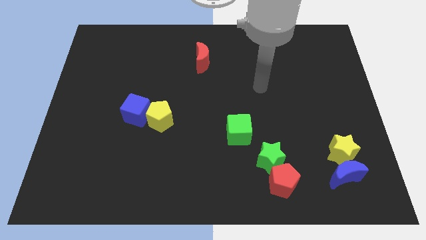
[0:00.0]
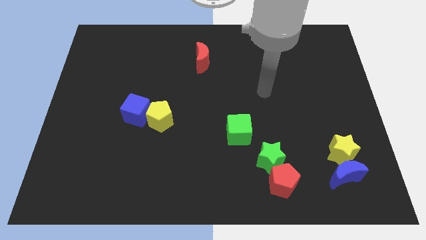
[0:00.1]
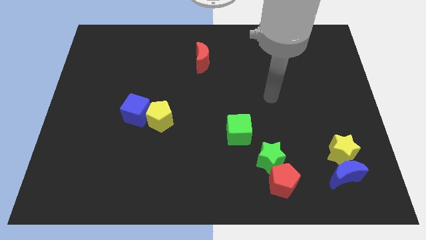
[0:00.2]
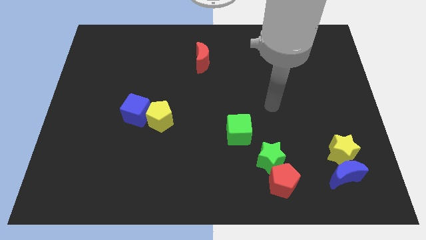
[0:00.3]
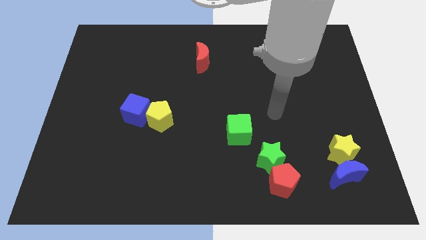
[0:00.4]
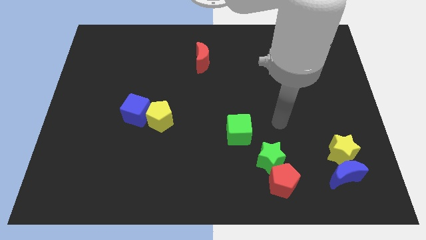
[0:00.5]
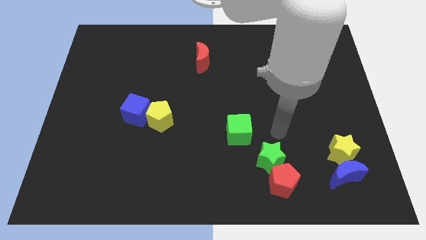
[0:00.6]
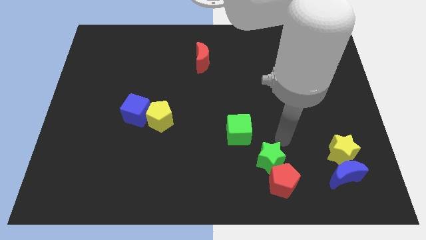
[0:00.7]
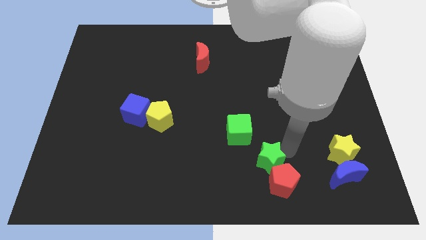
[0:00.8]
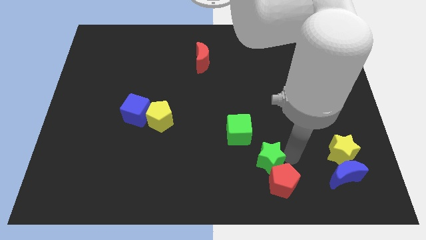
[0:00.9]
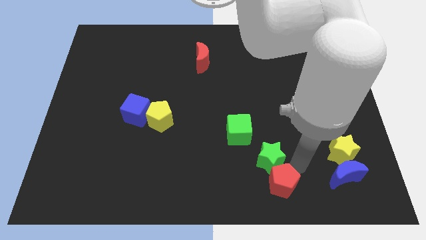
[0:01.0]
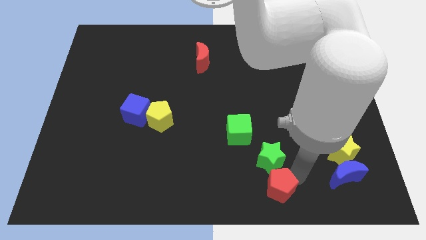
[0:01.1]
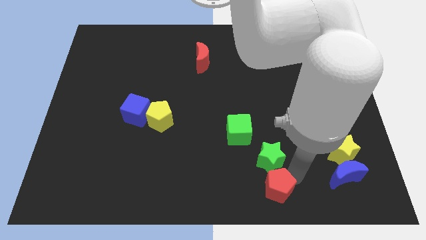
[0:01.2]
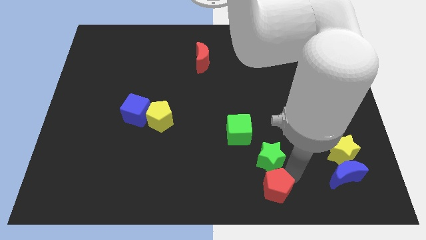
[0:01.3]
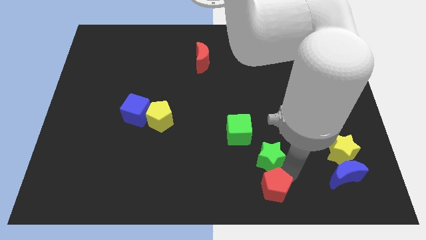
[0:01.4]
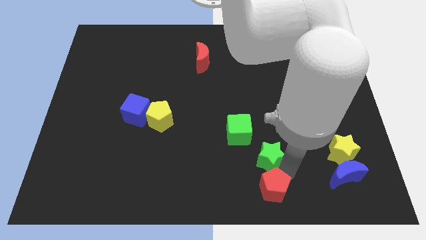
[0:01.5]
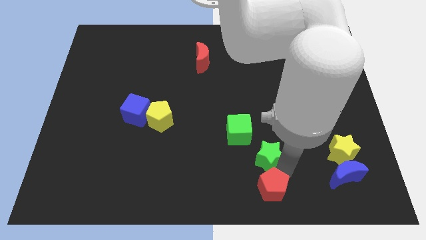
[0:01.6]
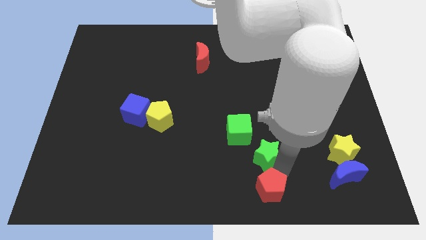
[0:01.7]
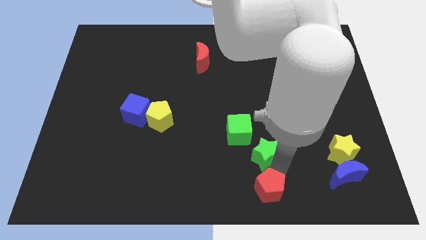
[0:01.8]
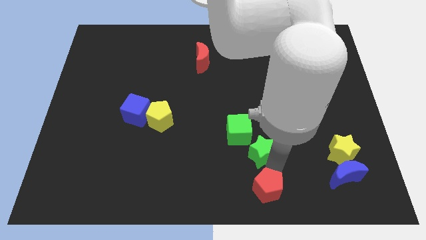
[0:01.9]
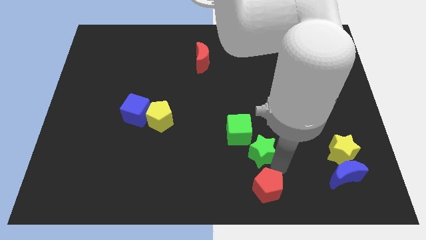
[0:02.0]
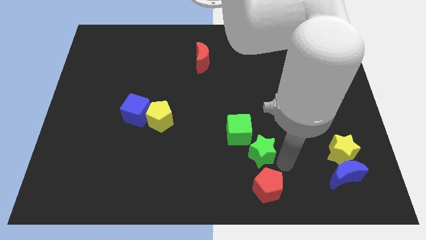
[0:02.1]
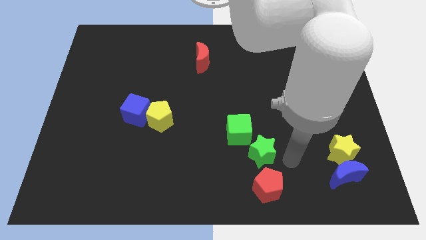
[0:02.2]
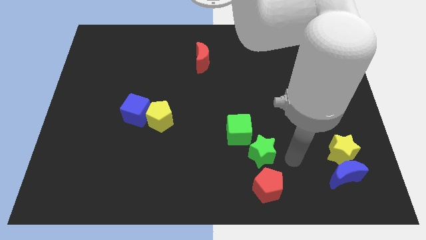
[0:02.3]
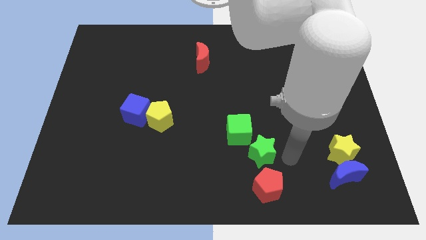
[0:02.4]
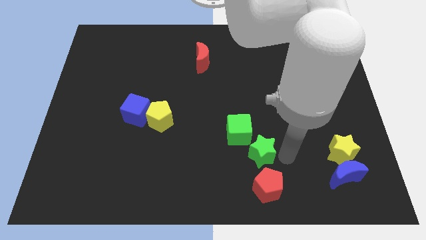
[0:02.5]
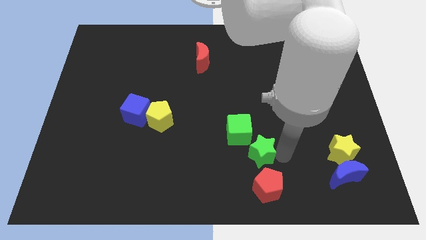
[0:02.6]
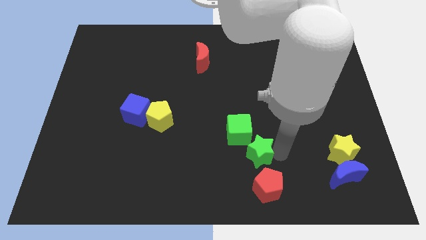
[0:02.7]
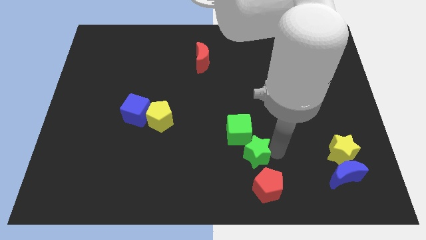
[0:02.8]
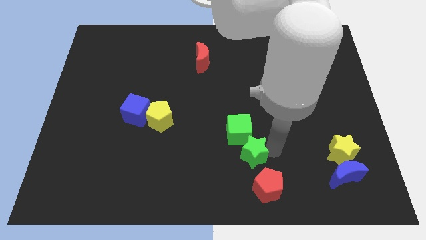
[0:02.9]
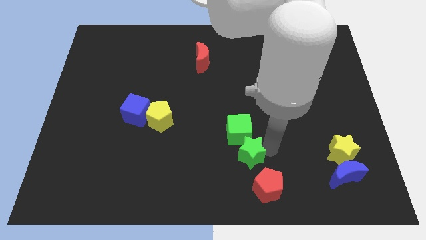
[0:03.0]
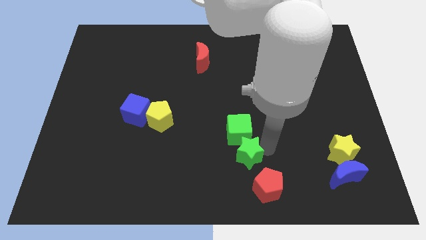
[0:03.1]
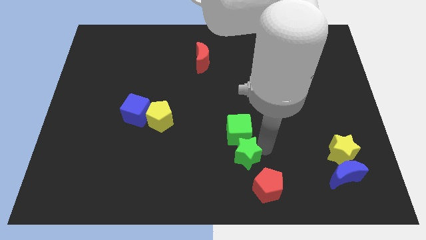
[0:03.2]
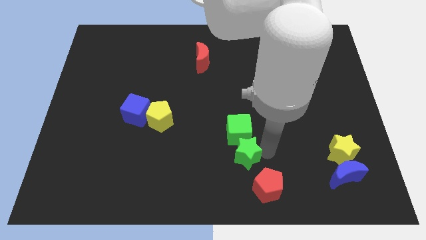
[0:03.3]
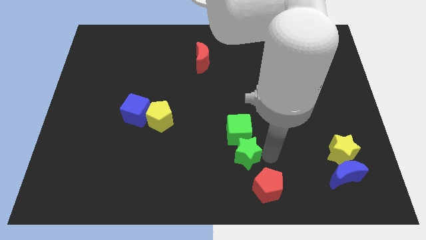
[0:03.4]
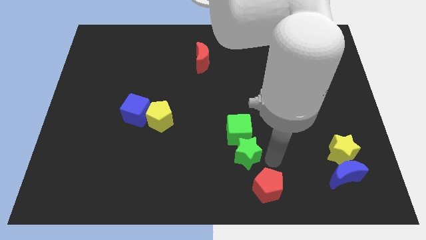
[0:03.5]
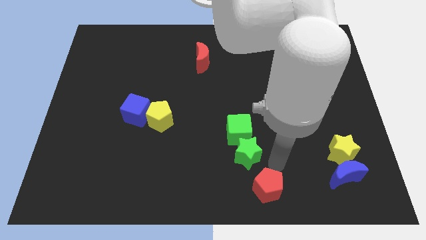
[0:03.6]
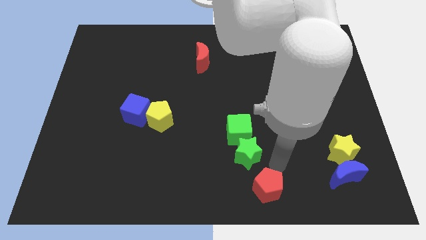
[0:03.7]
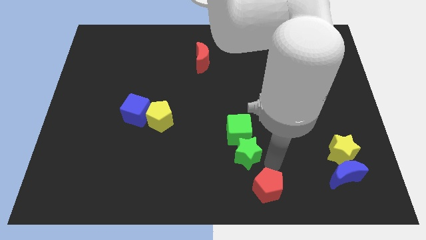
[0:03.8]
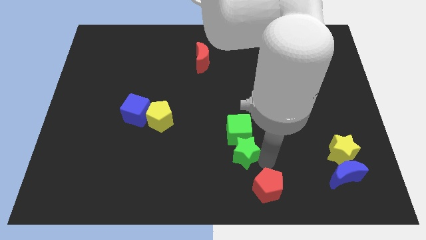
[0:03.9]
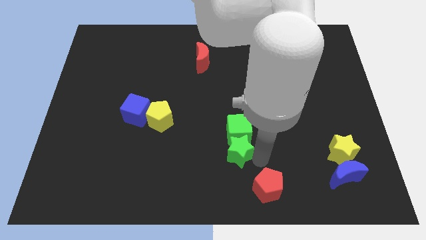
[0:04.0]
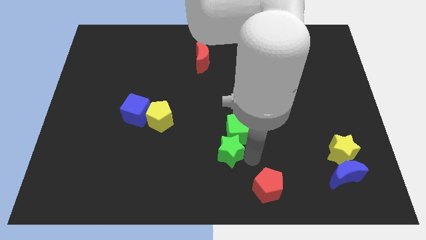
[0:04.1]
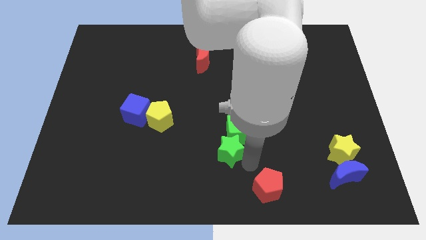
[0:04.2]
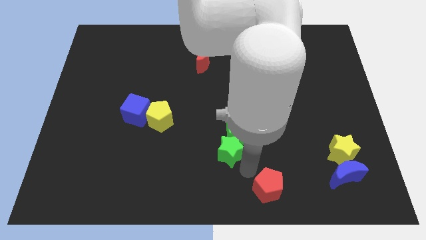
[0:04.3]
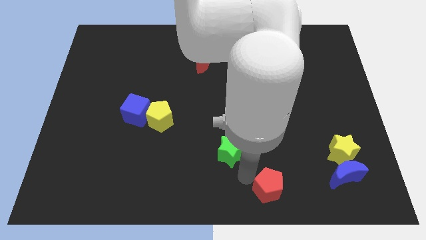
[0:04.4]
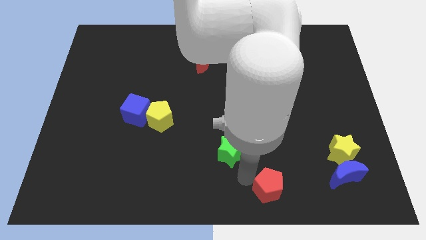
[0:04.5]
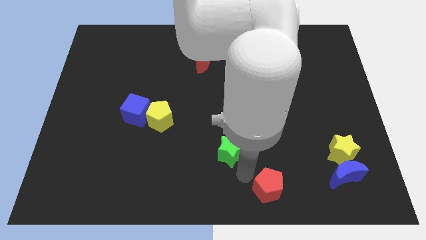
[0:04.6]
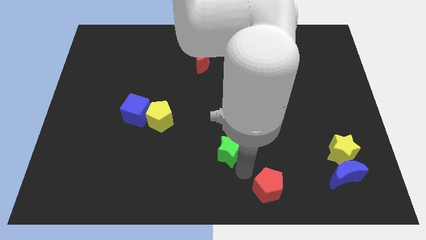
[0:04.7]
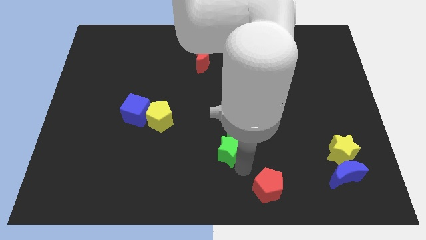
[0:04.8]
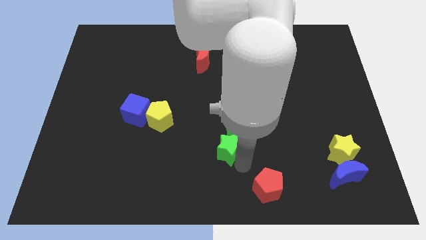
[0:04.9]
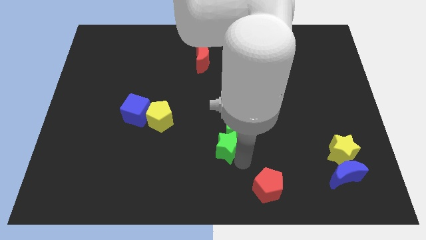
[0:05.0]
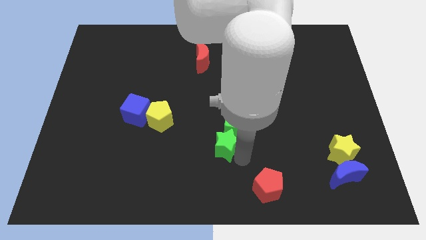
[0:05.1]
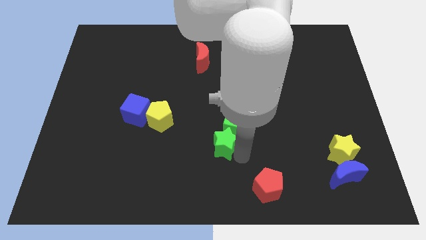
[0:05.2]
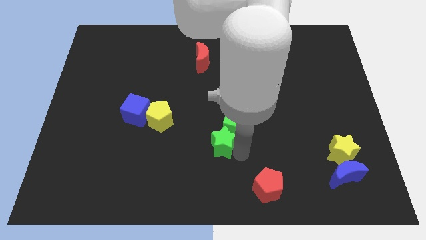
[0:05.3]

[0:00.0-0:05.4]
put the green star to the middle of the board

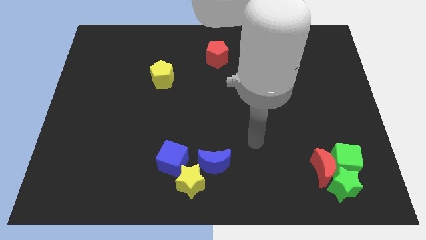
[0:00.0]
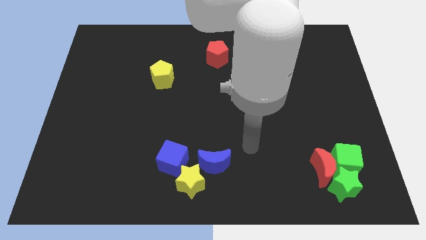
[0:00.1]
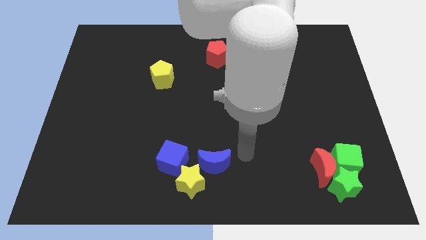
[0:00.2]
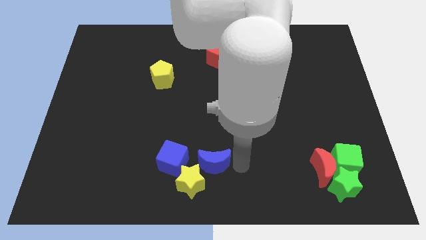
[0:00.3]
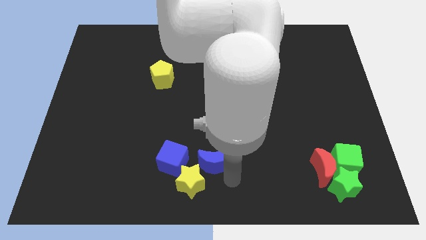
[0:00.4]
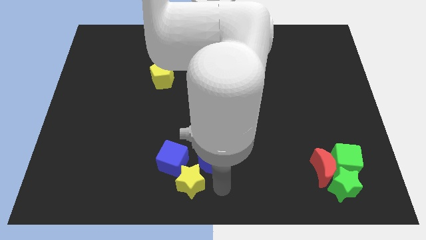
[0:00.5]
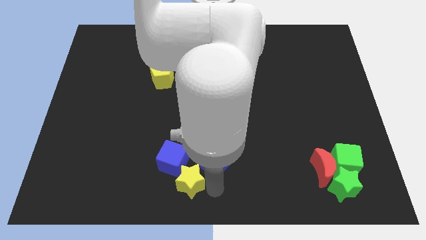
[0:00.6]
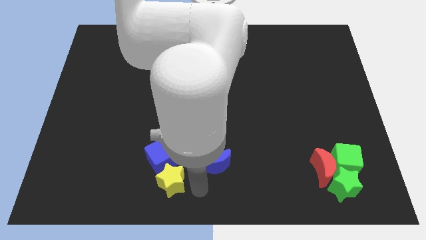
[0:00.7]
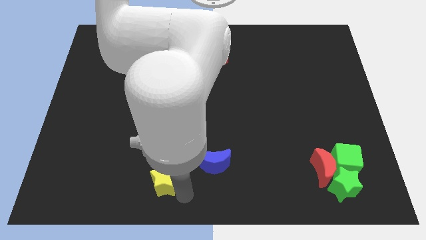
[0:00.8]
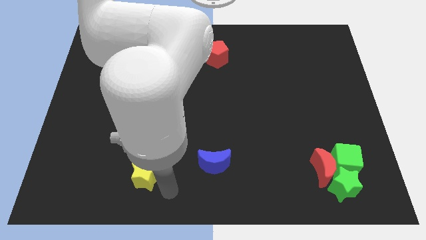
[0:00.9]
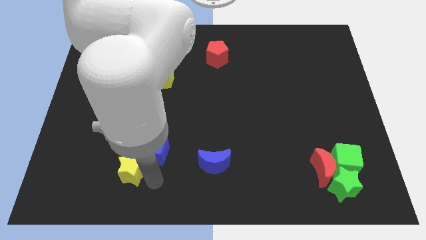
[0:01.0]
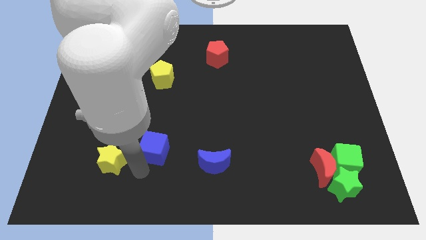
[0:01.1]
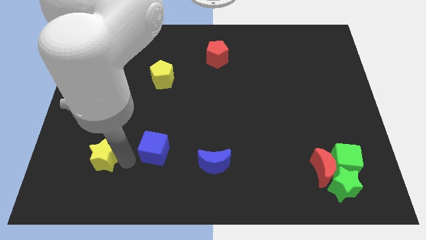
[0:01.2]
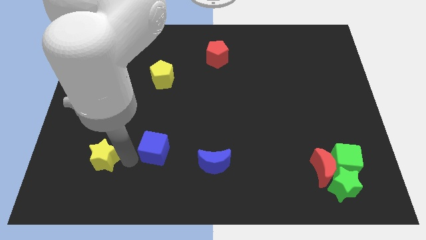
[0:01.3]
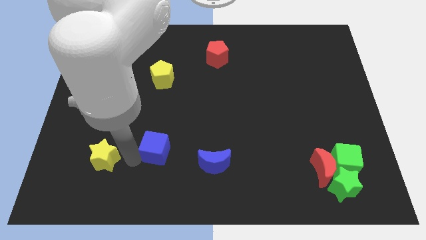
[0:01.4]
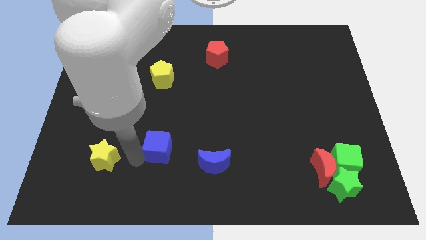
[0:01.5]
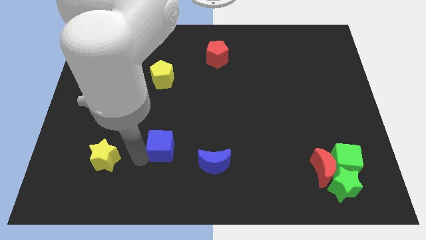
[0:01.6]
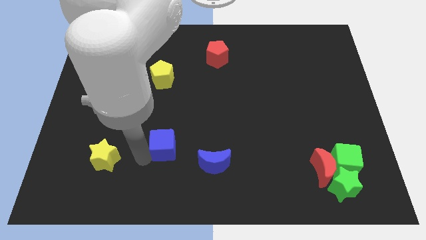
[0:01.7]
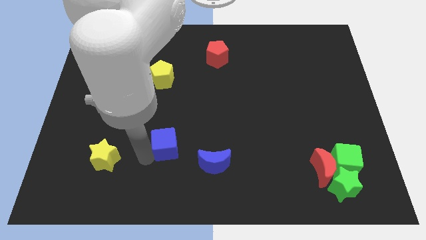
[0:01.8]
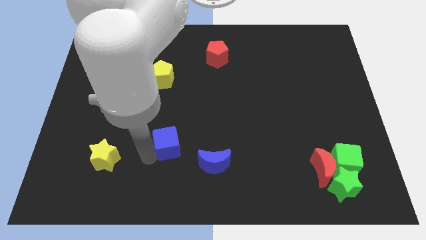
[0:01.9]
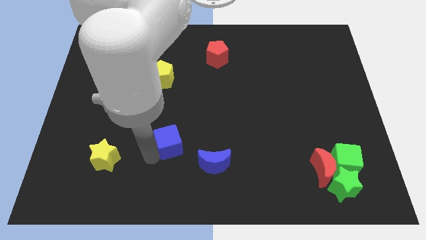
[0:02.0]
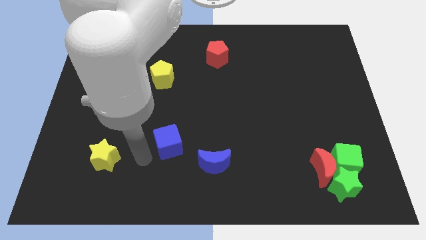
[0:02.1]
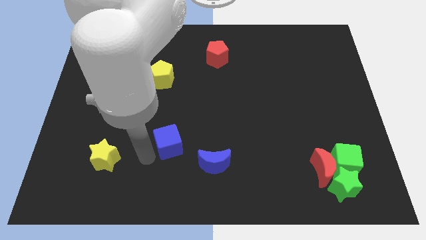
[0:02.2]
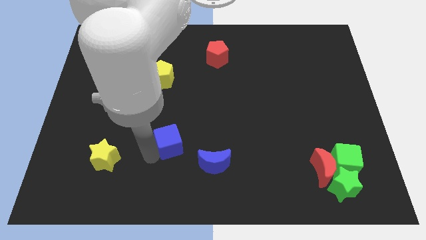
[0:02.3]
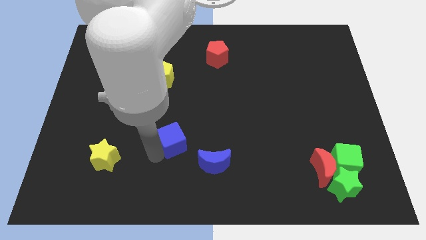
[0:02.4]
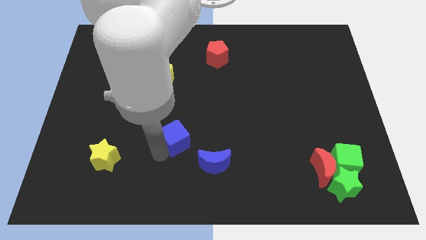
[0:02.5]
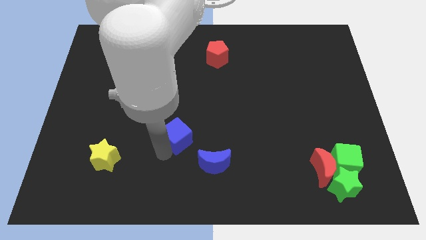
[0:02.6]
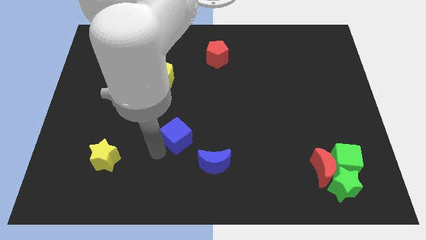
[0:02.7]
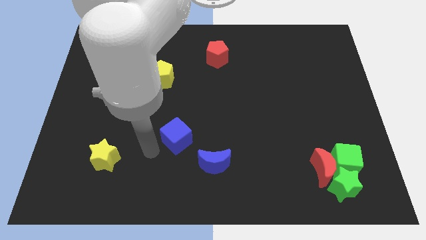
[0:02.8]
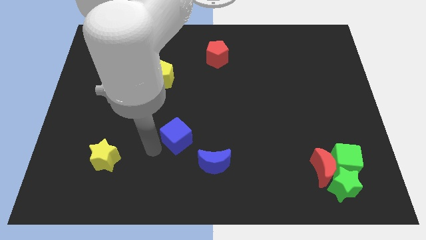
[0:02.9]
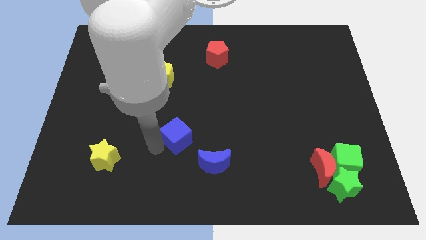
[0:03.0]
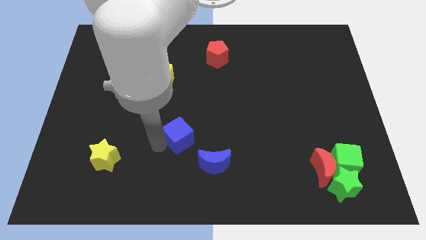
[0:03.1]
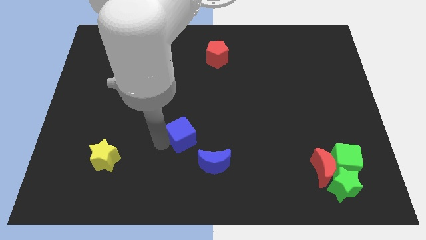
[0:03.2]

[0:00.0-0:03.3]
put the blue cube to the middle of the board
